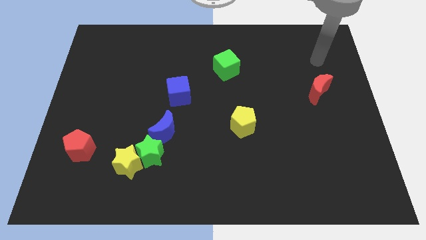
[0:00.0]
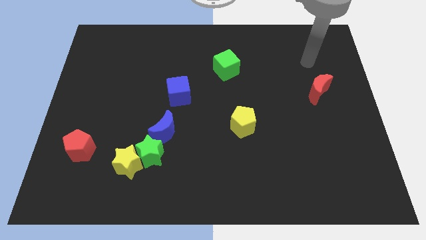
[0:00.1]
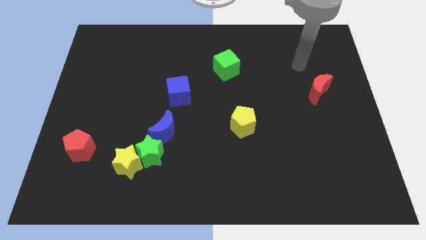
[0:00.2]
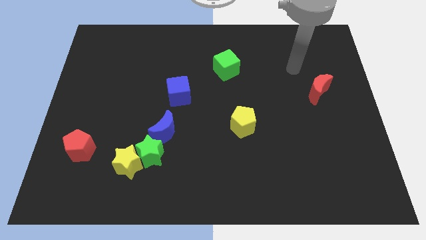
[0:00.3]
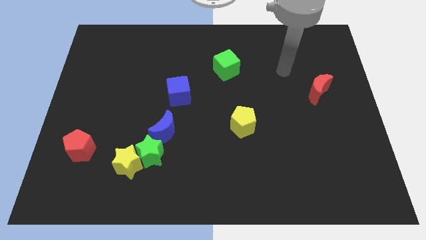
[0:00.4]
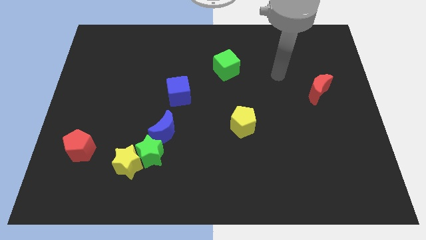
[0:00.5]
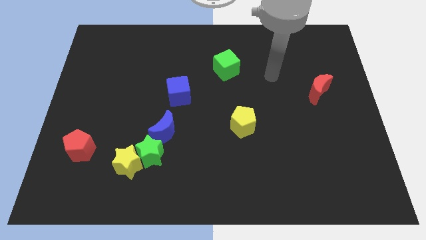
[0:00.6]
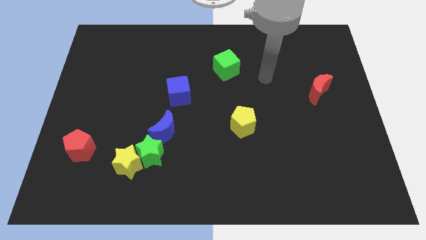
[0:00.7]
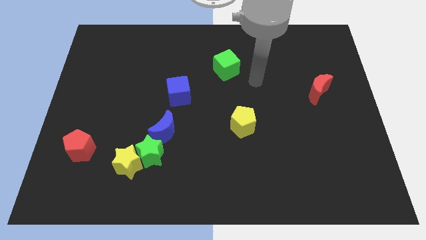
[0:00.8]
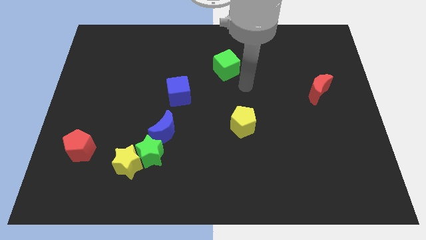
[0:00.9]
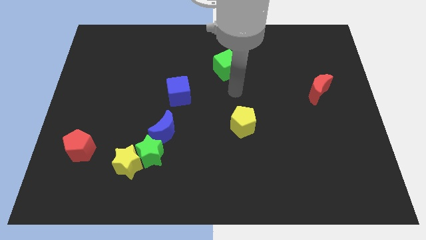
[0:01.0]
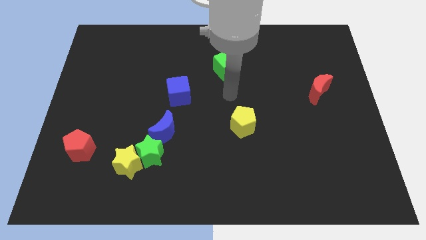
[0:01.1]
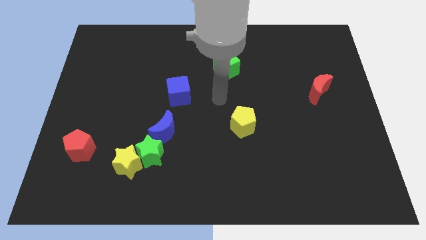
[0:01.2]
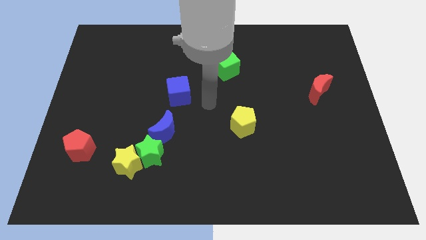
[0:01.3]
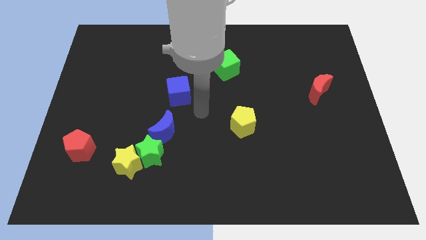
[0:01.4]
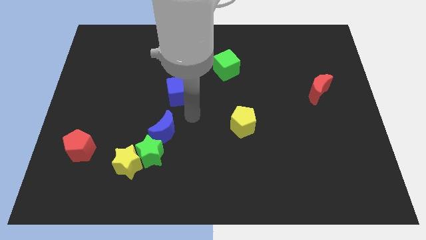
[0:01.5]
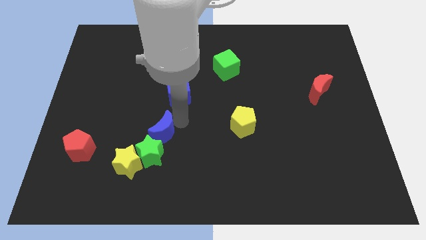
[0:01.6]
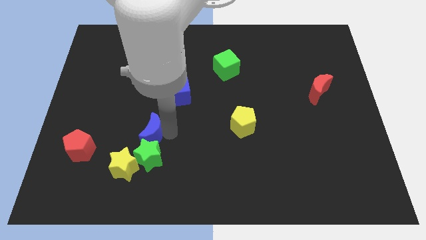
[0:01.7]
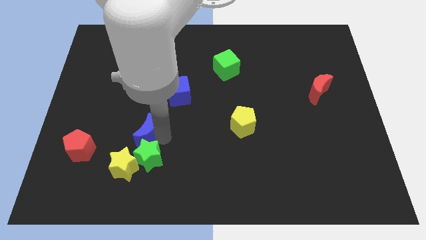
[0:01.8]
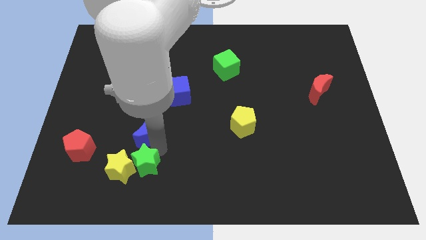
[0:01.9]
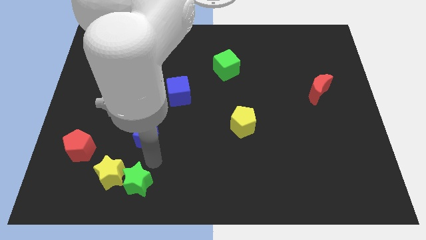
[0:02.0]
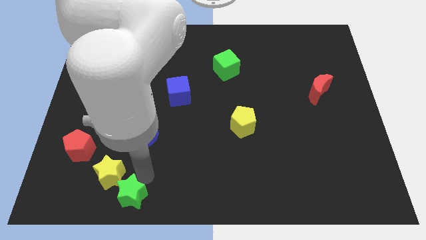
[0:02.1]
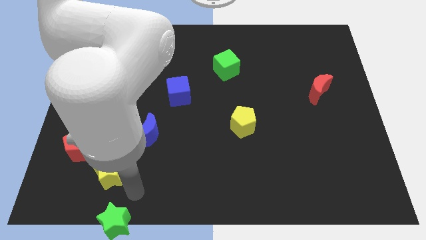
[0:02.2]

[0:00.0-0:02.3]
move the yellow star away from the green star

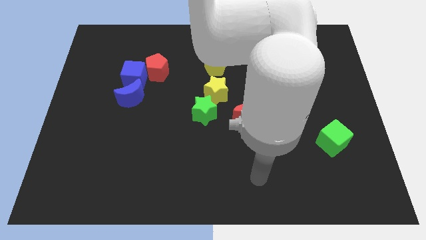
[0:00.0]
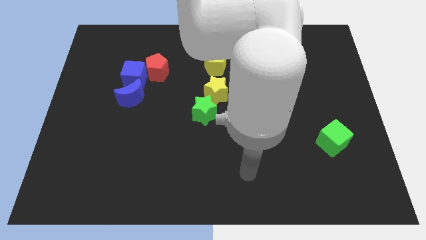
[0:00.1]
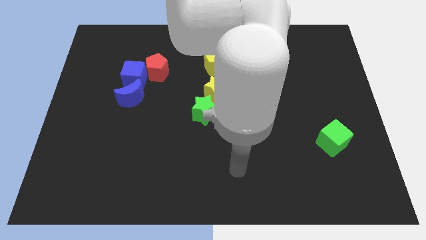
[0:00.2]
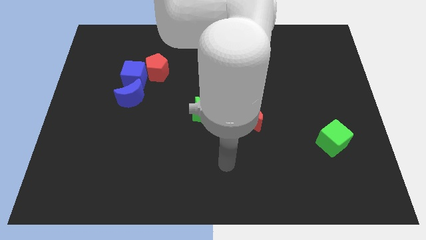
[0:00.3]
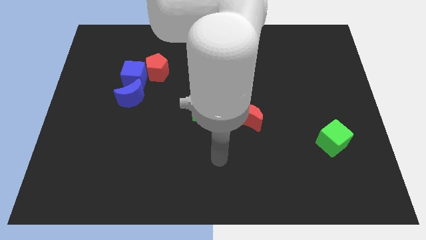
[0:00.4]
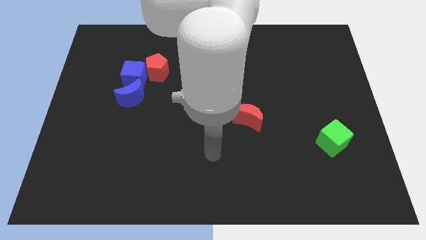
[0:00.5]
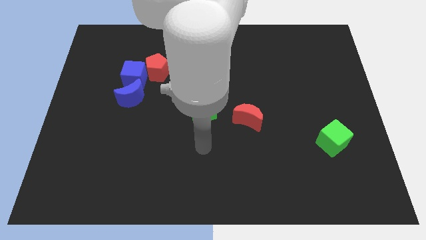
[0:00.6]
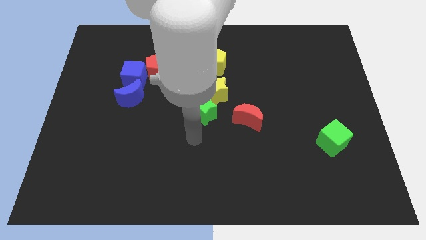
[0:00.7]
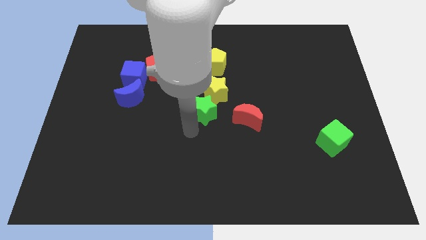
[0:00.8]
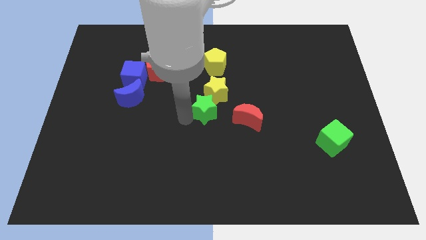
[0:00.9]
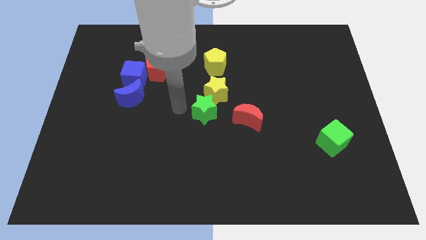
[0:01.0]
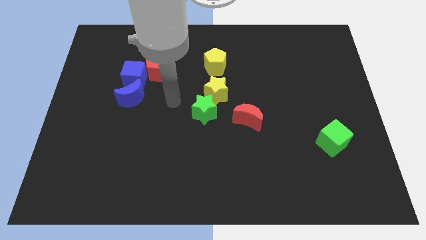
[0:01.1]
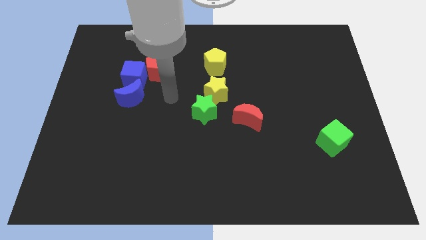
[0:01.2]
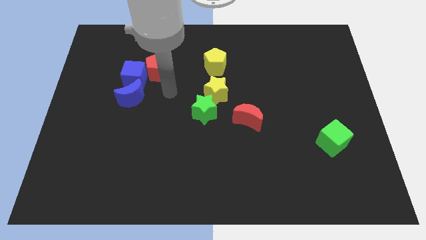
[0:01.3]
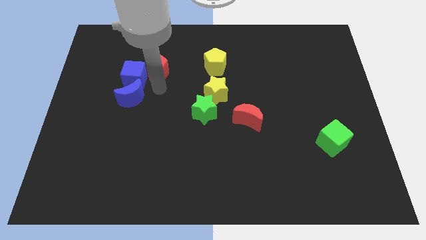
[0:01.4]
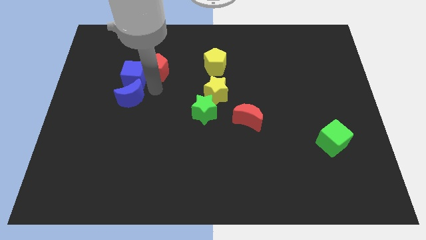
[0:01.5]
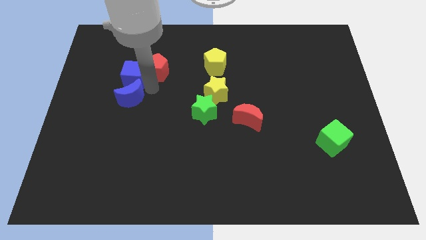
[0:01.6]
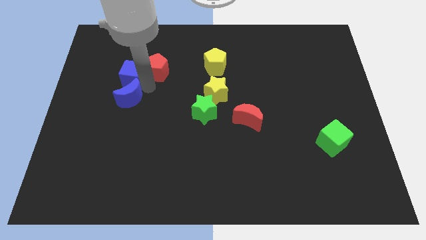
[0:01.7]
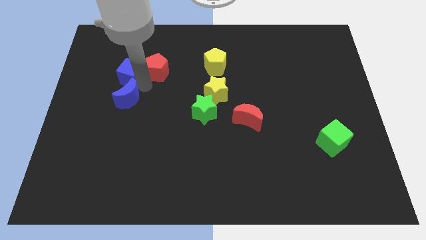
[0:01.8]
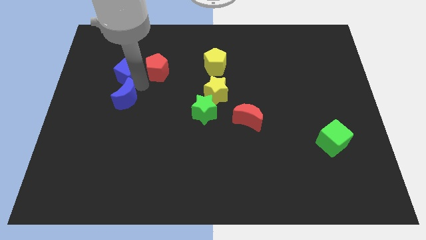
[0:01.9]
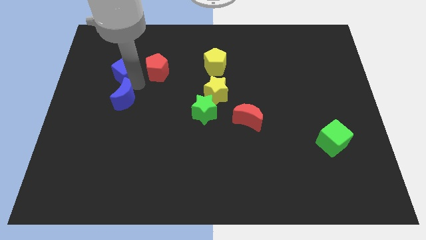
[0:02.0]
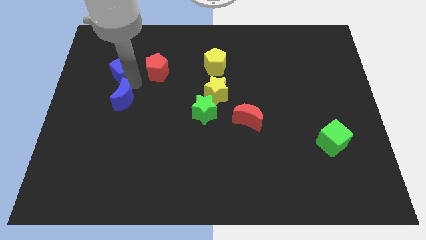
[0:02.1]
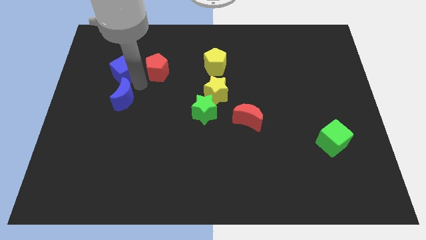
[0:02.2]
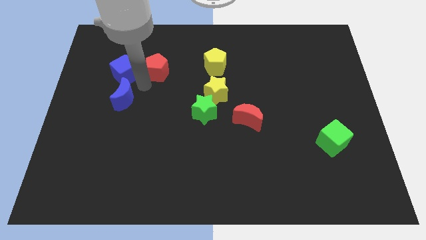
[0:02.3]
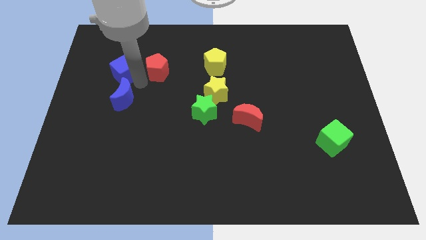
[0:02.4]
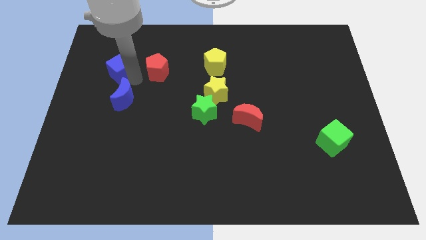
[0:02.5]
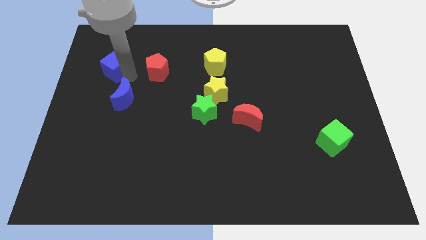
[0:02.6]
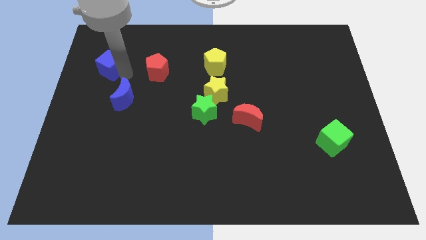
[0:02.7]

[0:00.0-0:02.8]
separate the blue cube from the red pentagon and blue moon

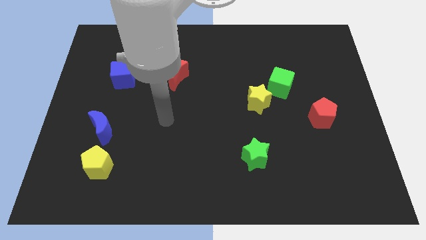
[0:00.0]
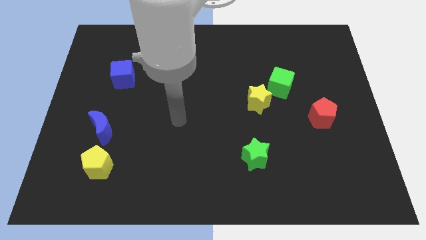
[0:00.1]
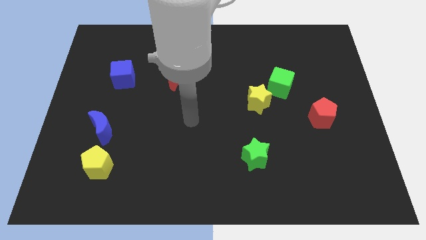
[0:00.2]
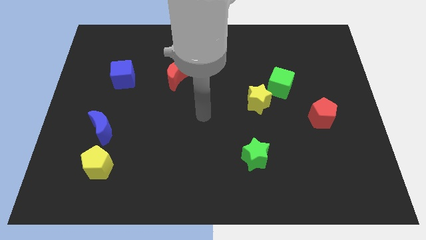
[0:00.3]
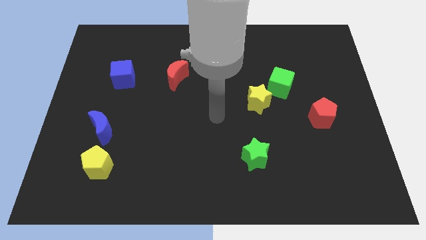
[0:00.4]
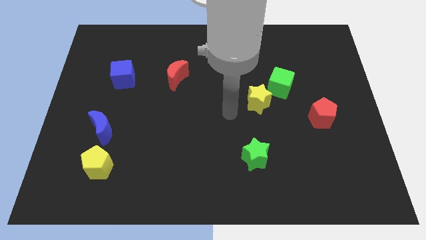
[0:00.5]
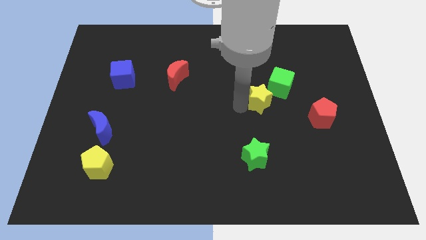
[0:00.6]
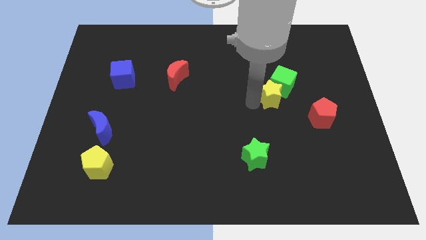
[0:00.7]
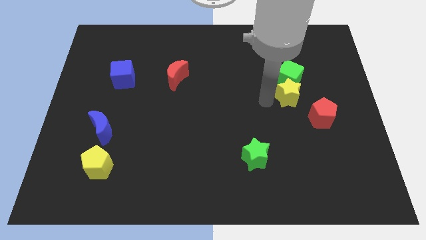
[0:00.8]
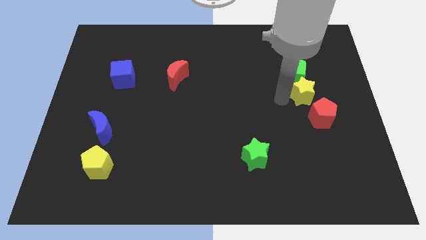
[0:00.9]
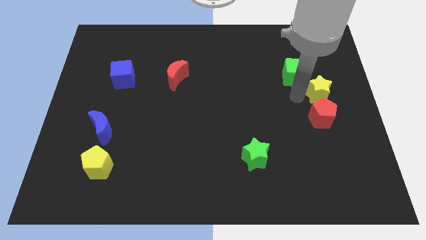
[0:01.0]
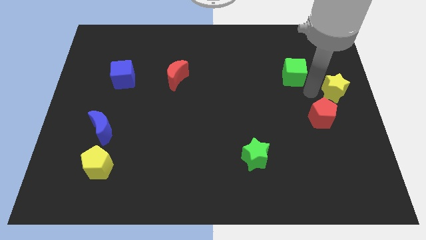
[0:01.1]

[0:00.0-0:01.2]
separate the green cube from the yellow star

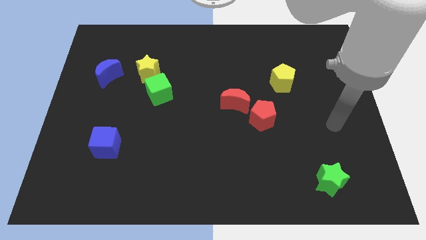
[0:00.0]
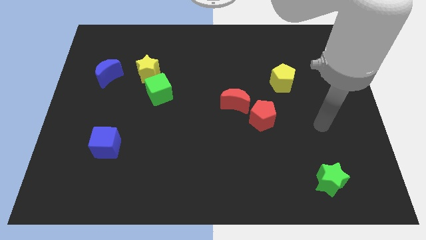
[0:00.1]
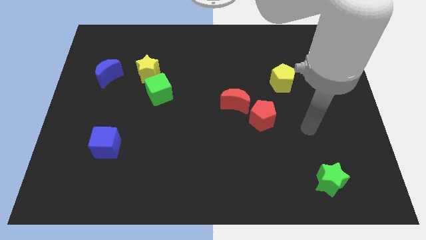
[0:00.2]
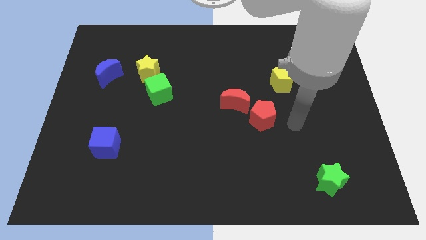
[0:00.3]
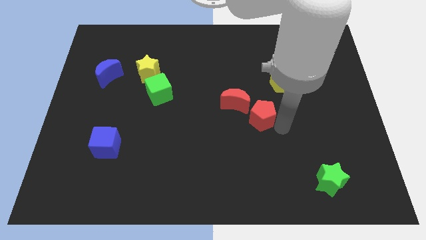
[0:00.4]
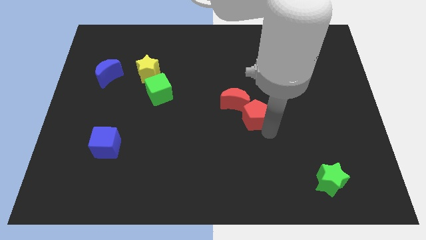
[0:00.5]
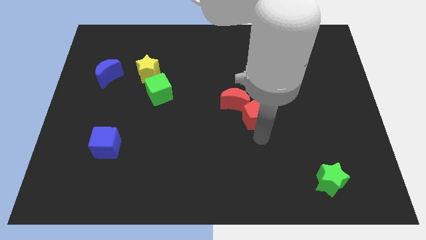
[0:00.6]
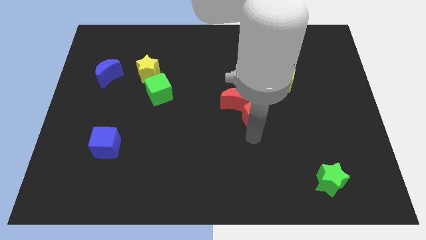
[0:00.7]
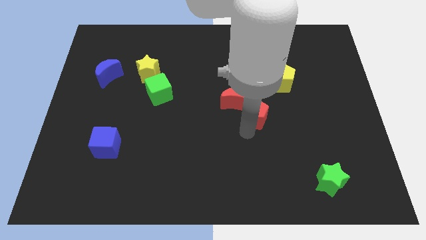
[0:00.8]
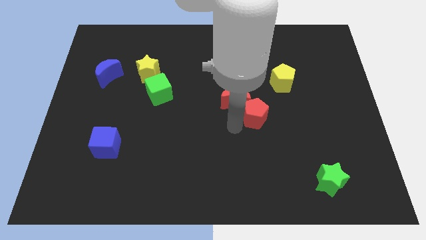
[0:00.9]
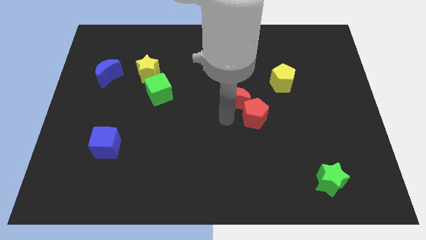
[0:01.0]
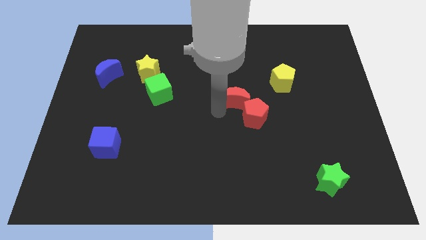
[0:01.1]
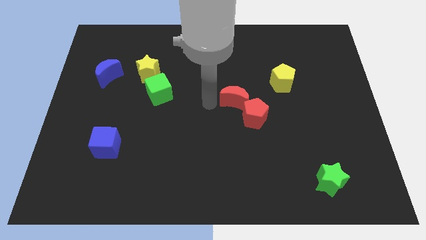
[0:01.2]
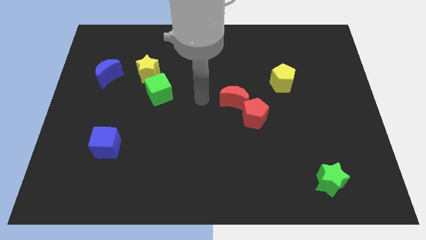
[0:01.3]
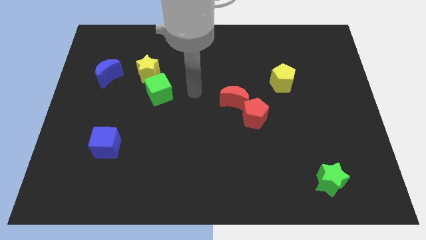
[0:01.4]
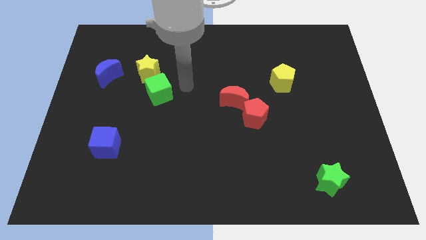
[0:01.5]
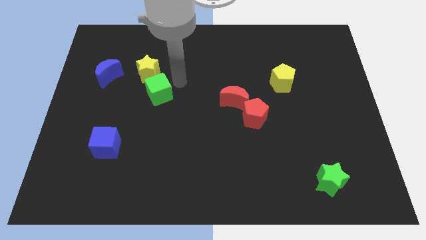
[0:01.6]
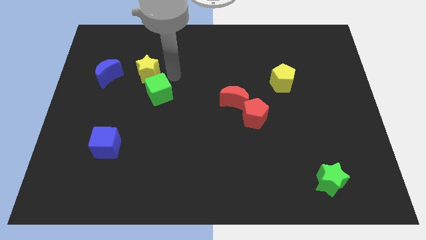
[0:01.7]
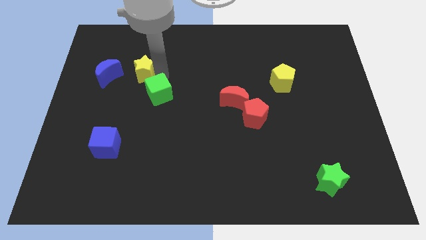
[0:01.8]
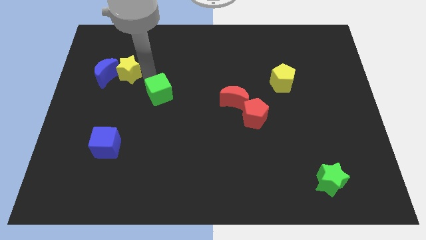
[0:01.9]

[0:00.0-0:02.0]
move the green cube away from the yellow star

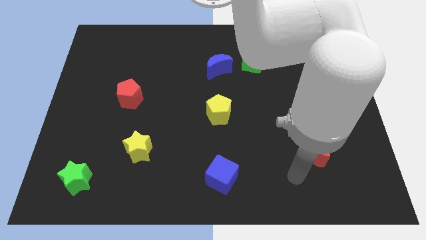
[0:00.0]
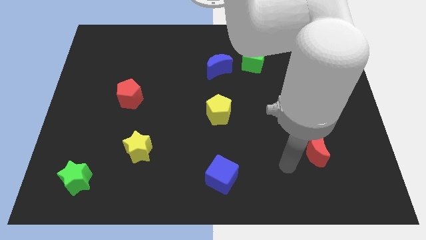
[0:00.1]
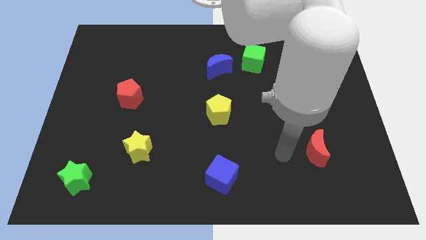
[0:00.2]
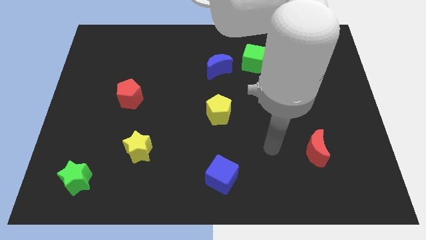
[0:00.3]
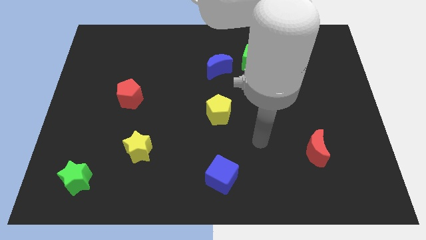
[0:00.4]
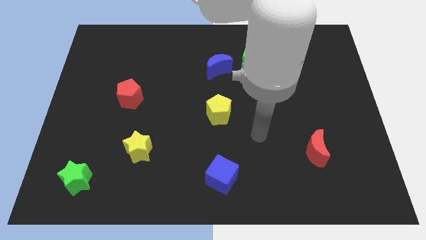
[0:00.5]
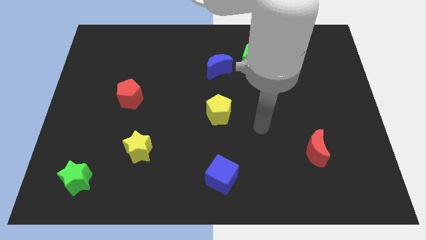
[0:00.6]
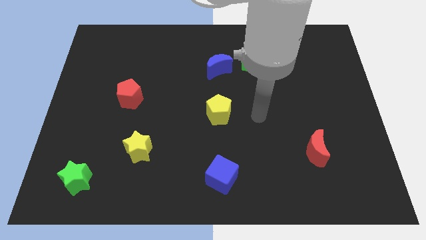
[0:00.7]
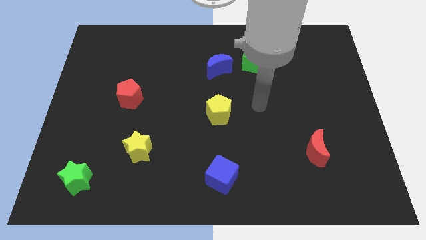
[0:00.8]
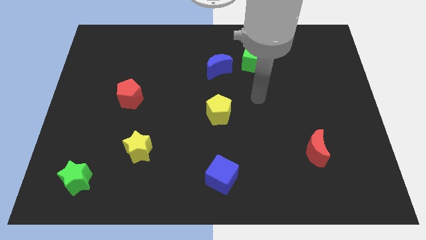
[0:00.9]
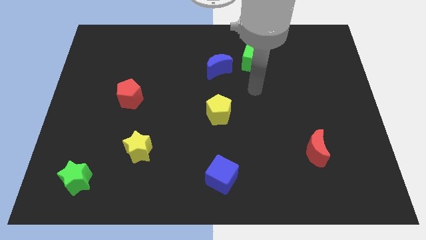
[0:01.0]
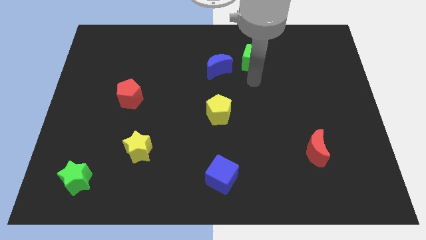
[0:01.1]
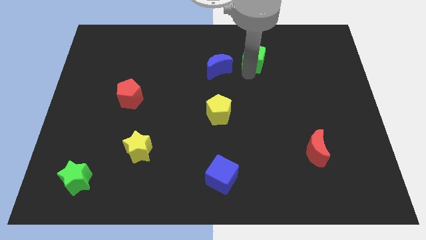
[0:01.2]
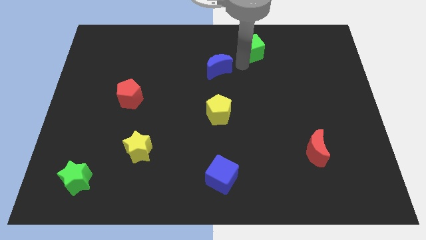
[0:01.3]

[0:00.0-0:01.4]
move the blue moon away from the green cube
